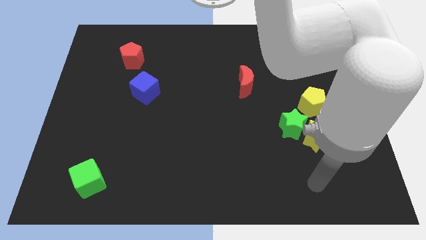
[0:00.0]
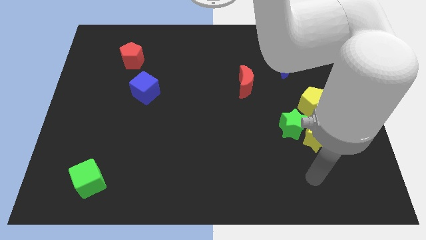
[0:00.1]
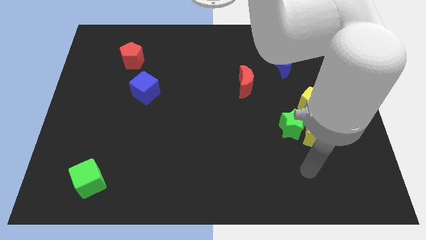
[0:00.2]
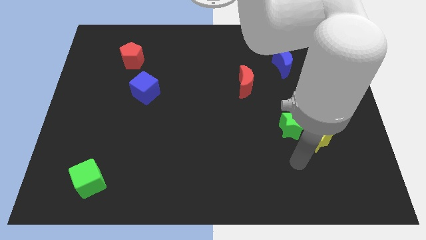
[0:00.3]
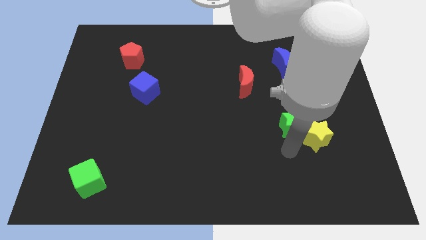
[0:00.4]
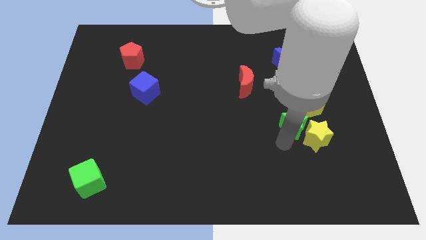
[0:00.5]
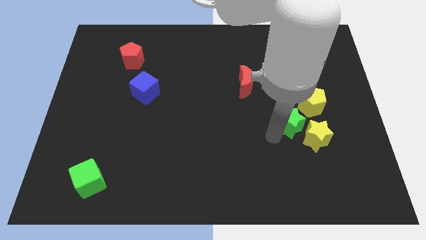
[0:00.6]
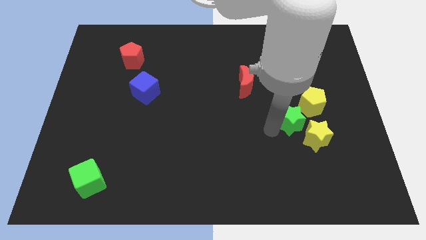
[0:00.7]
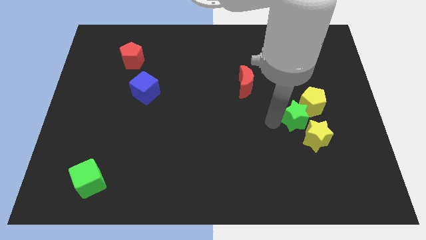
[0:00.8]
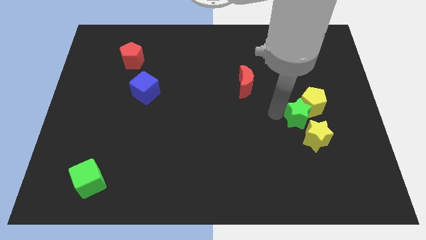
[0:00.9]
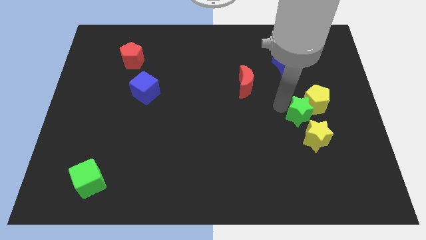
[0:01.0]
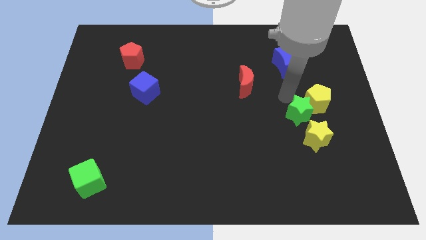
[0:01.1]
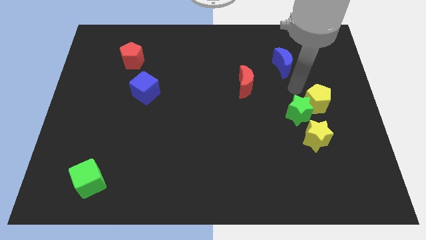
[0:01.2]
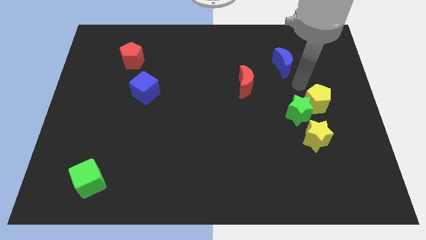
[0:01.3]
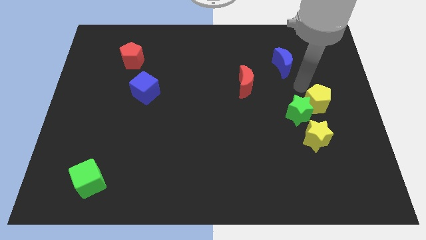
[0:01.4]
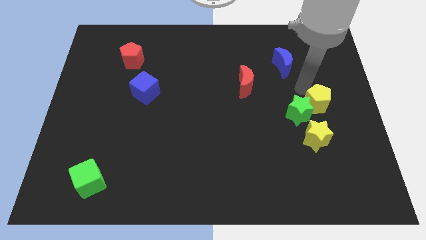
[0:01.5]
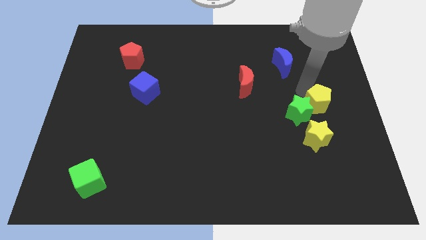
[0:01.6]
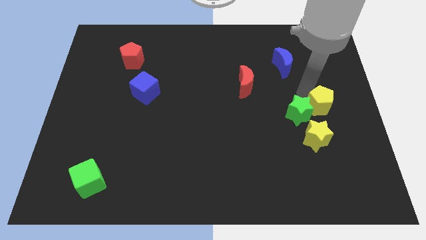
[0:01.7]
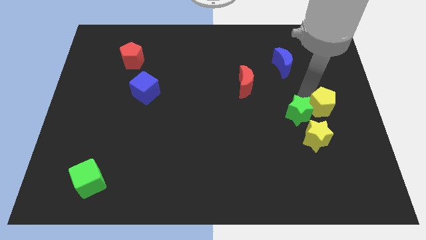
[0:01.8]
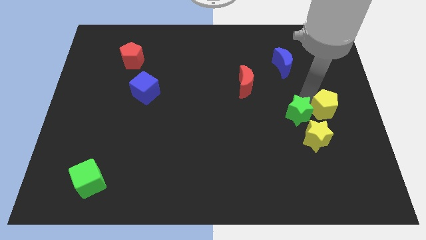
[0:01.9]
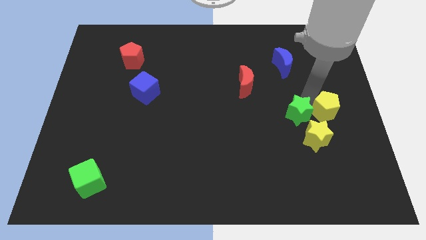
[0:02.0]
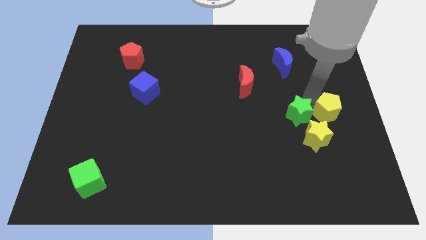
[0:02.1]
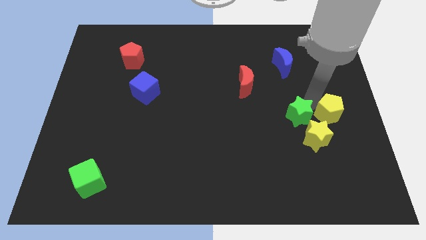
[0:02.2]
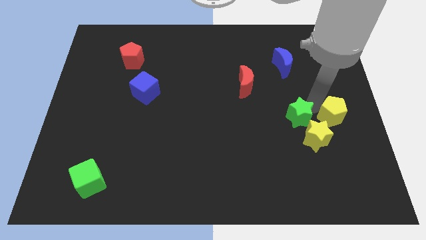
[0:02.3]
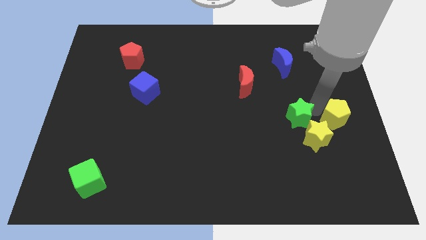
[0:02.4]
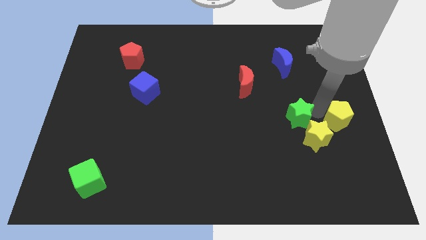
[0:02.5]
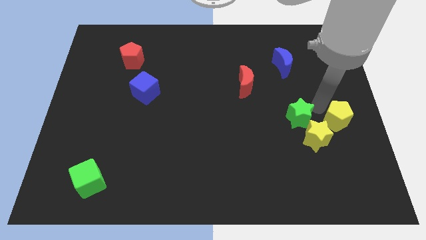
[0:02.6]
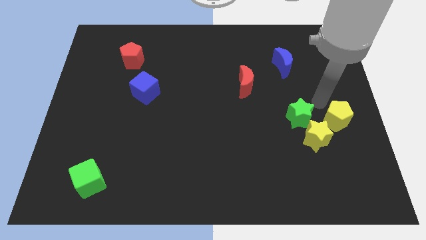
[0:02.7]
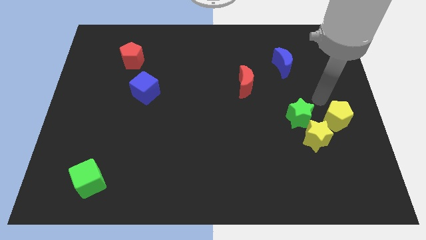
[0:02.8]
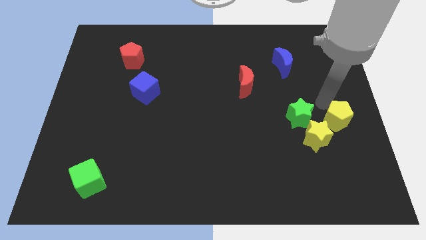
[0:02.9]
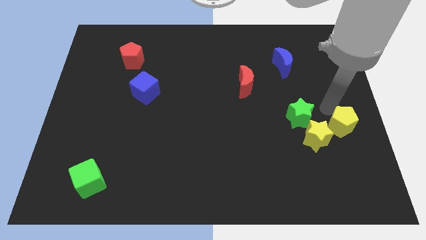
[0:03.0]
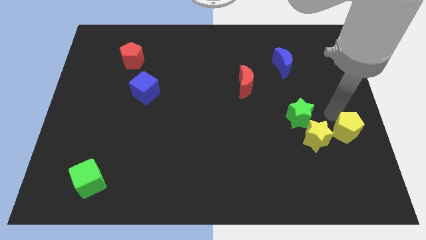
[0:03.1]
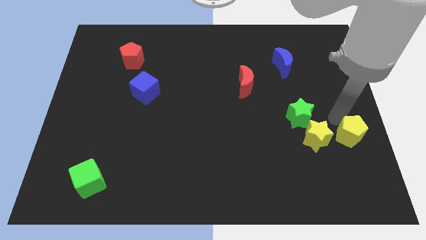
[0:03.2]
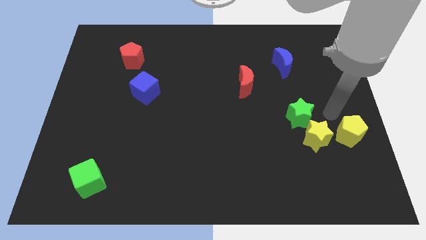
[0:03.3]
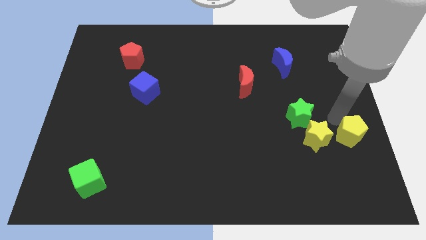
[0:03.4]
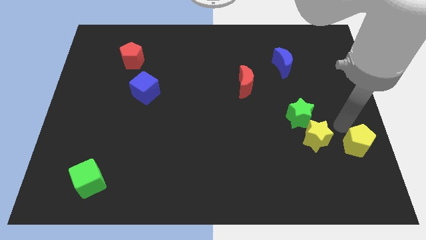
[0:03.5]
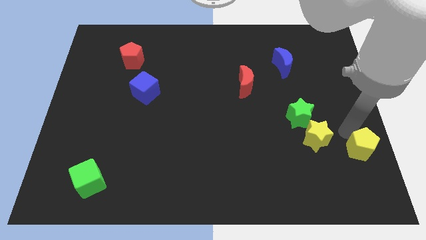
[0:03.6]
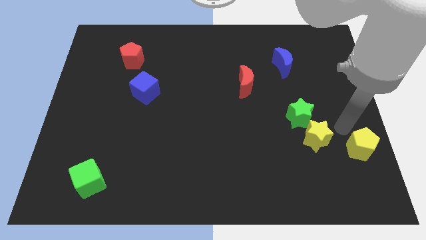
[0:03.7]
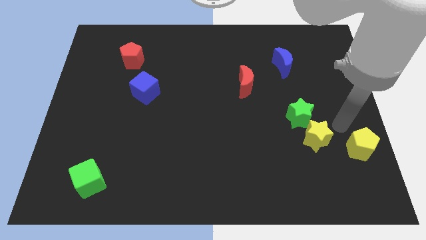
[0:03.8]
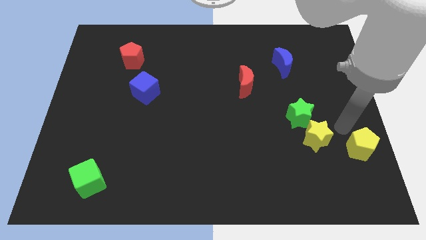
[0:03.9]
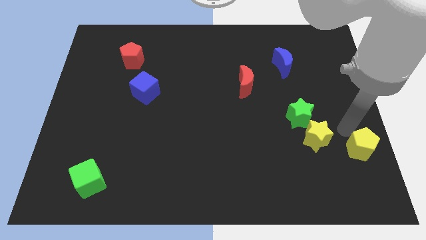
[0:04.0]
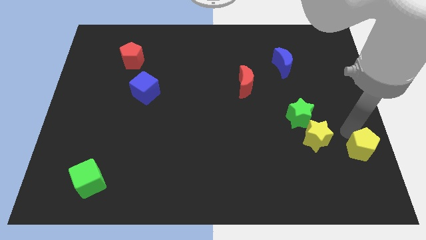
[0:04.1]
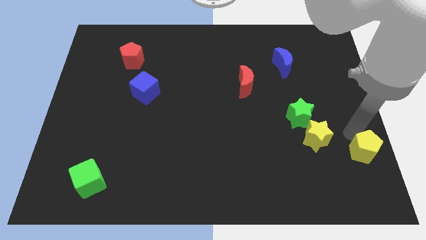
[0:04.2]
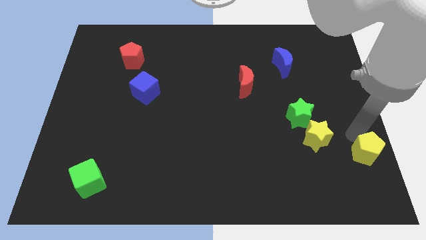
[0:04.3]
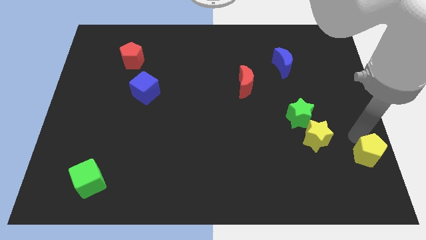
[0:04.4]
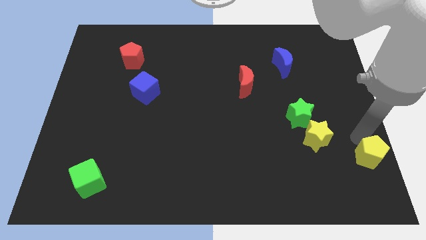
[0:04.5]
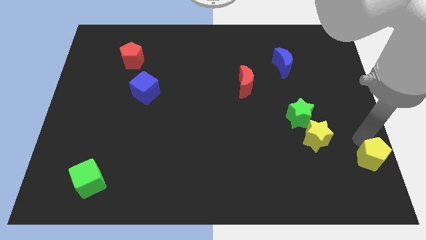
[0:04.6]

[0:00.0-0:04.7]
put the yellow pentagon to the lower right corner

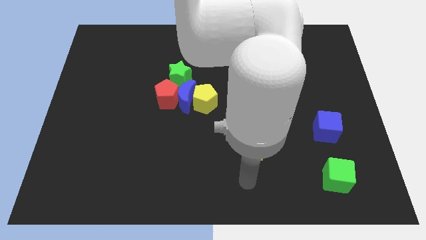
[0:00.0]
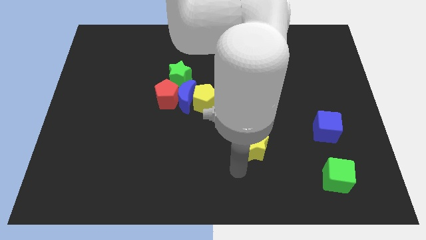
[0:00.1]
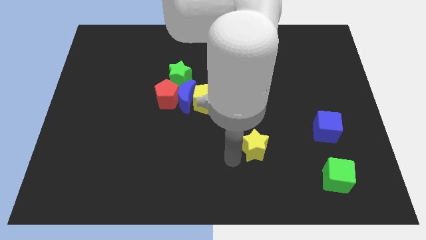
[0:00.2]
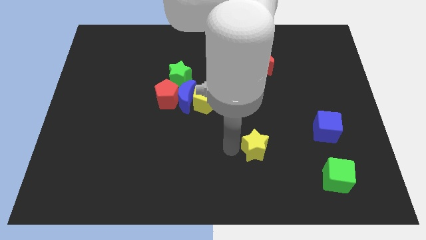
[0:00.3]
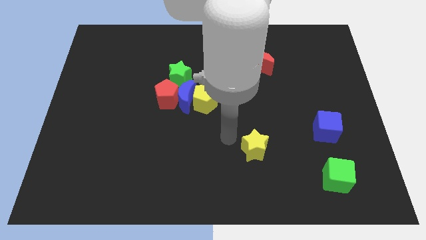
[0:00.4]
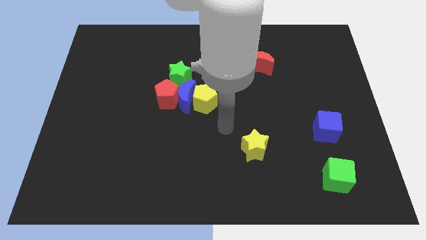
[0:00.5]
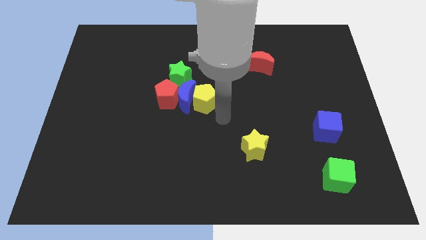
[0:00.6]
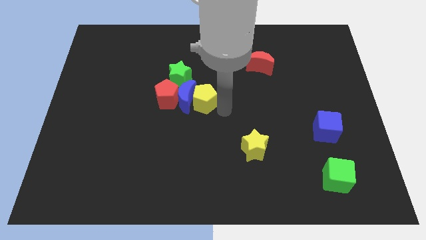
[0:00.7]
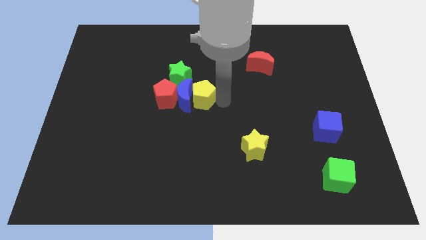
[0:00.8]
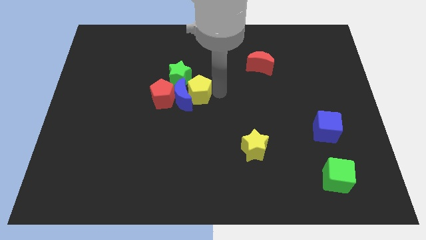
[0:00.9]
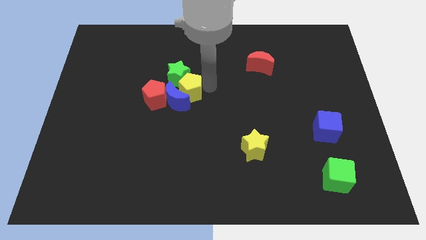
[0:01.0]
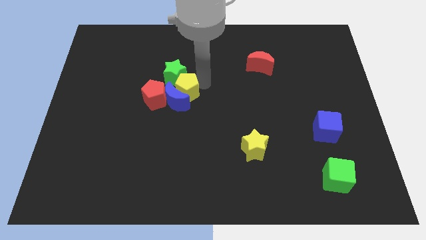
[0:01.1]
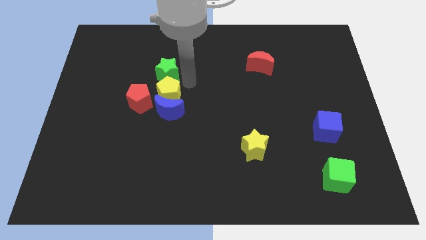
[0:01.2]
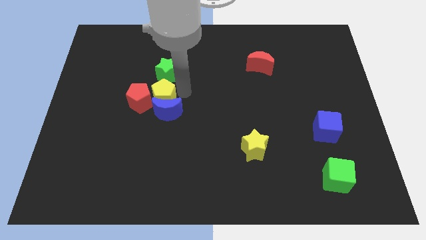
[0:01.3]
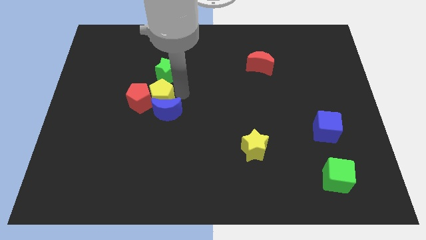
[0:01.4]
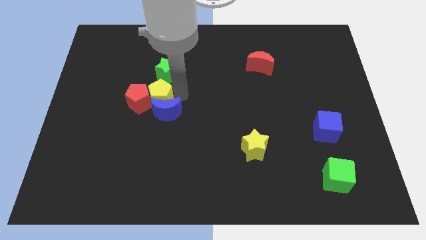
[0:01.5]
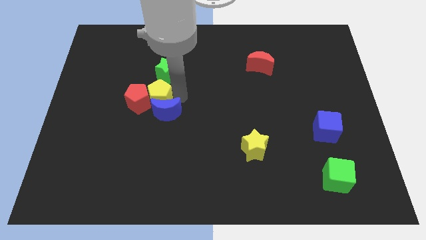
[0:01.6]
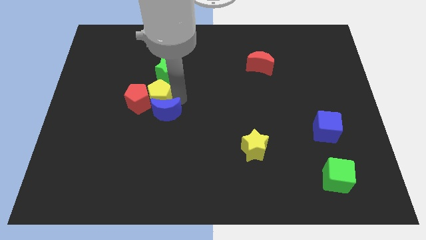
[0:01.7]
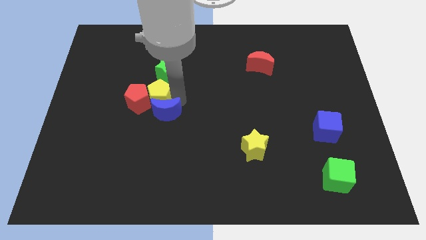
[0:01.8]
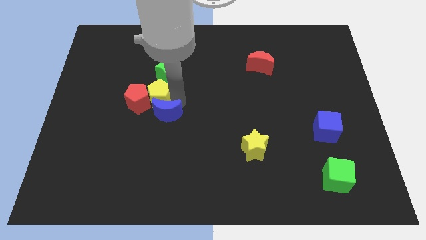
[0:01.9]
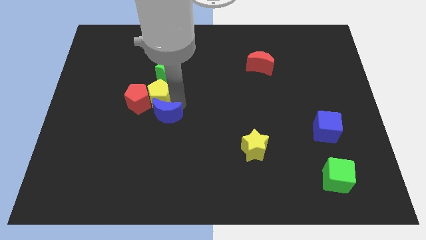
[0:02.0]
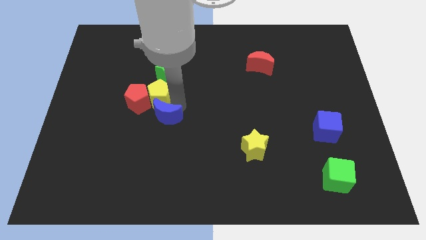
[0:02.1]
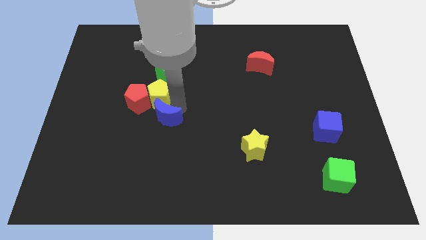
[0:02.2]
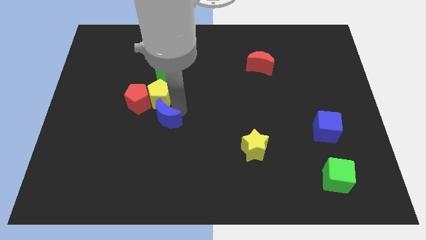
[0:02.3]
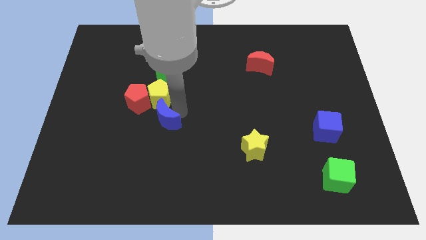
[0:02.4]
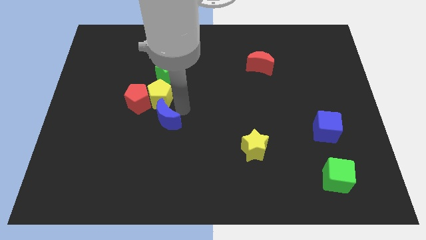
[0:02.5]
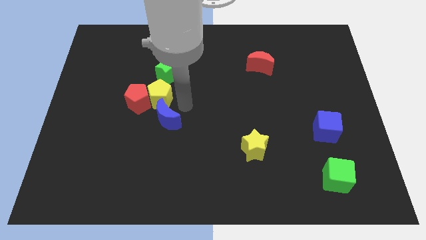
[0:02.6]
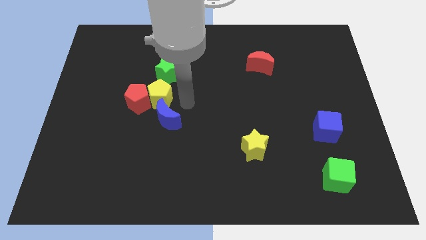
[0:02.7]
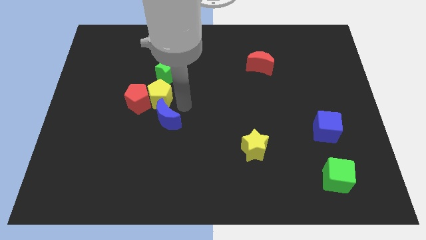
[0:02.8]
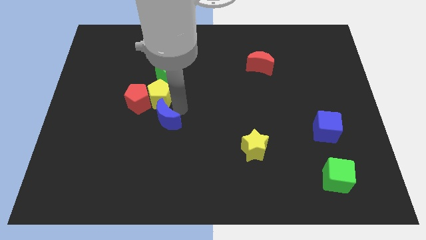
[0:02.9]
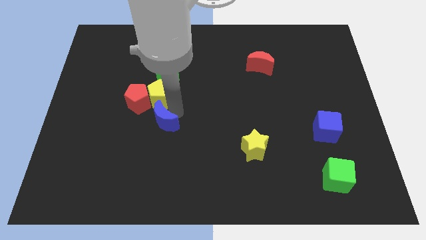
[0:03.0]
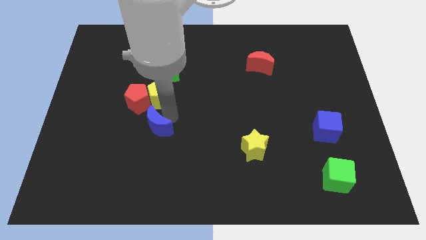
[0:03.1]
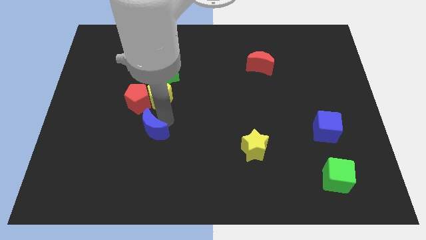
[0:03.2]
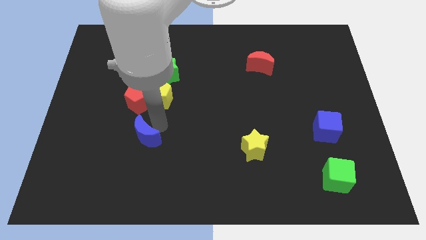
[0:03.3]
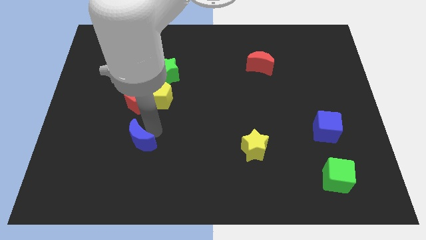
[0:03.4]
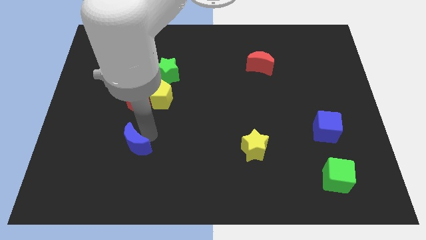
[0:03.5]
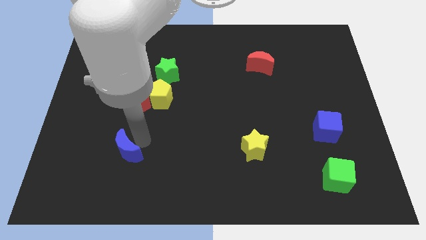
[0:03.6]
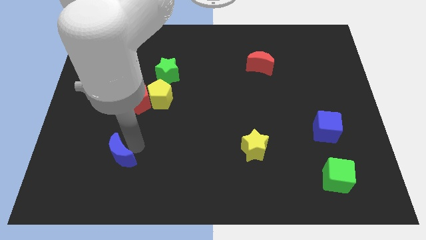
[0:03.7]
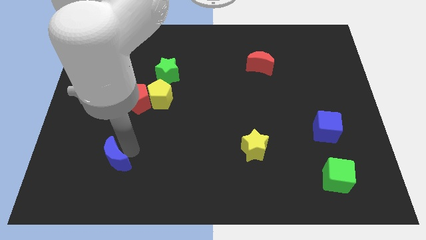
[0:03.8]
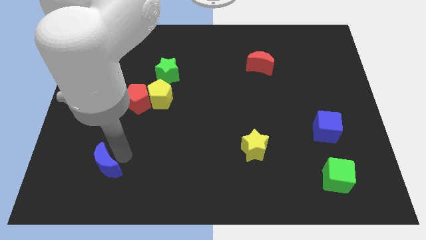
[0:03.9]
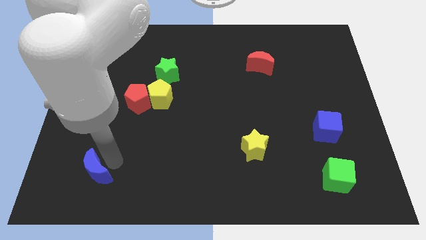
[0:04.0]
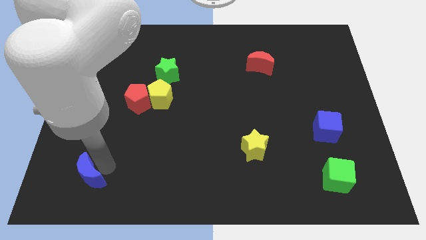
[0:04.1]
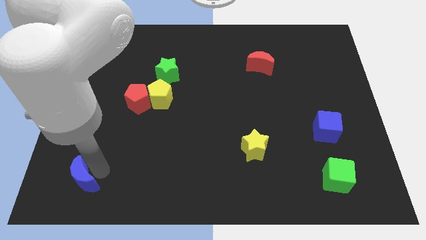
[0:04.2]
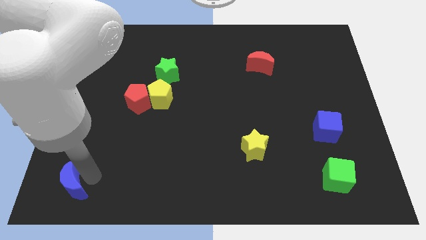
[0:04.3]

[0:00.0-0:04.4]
move the blue moon to the bottom left
